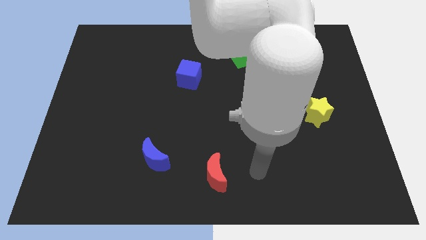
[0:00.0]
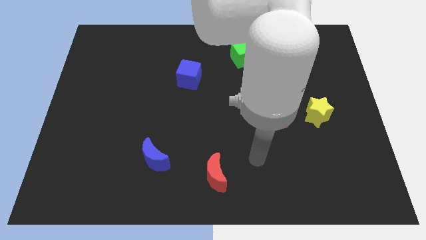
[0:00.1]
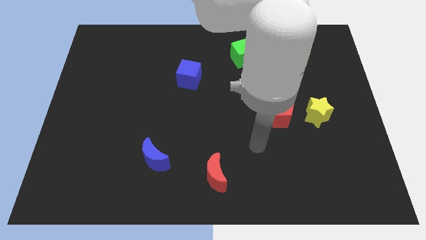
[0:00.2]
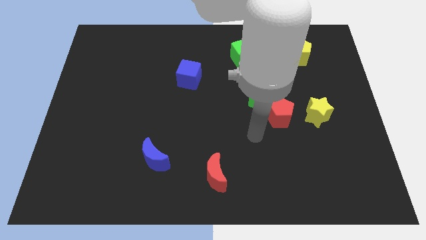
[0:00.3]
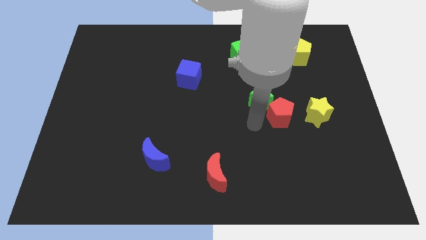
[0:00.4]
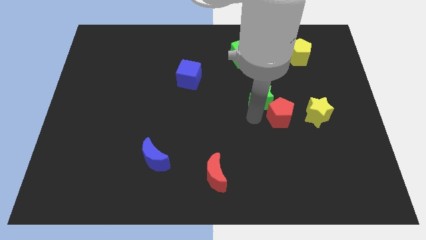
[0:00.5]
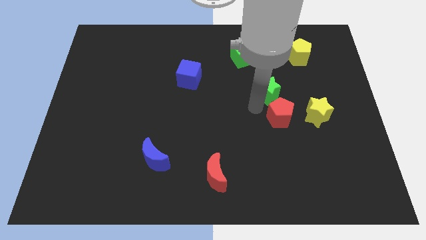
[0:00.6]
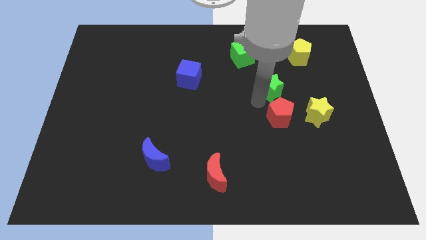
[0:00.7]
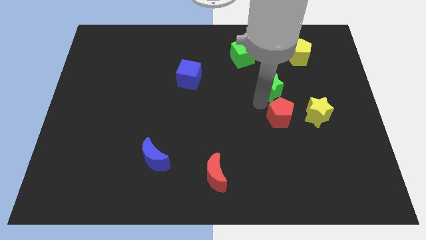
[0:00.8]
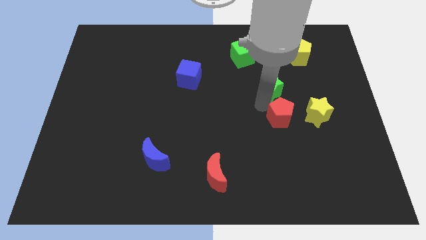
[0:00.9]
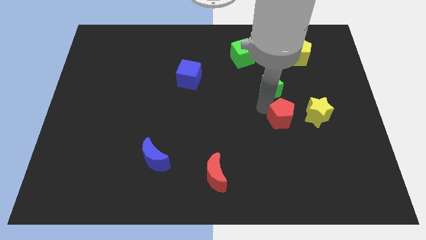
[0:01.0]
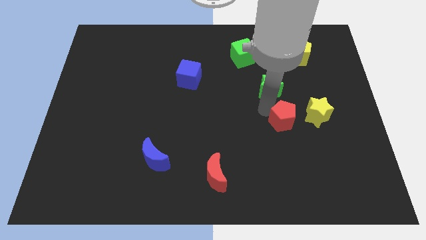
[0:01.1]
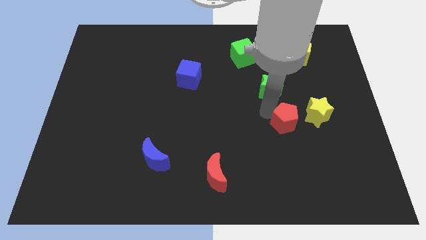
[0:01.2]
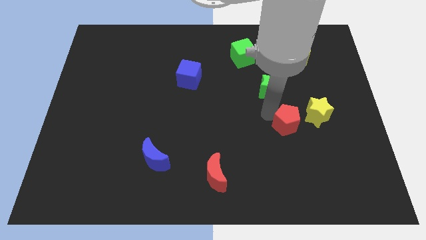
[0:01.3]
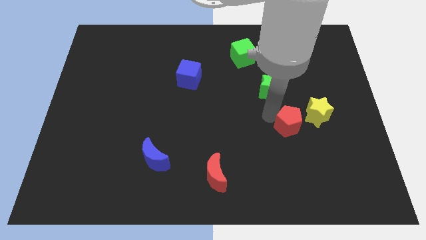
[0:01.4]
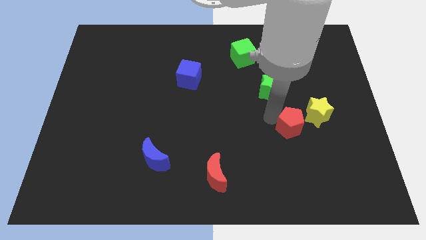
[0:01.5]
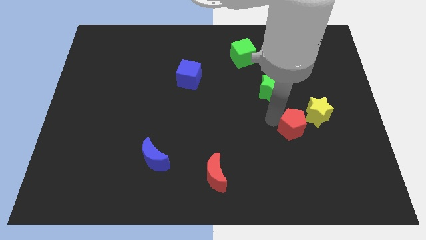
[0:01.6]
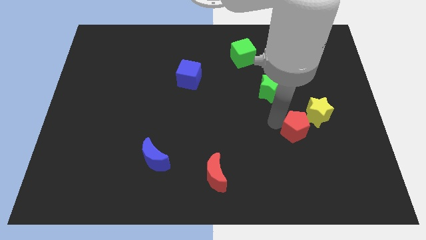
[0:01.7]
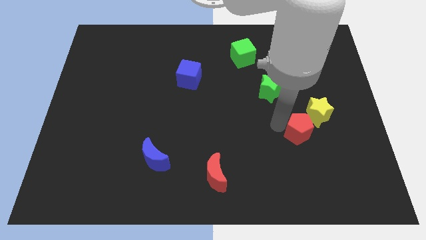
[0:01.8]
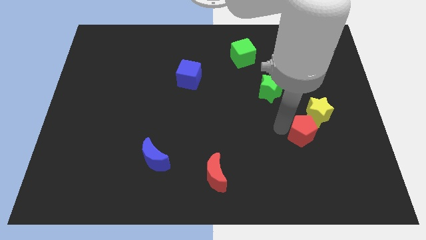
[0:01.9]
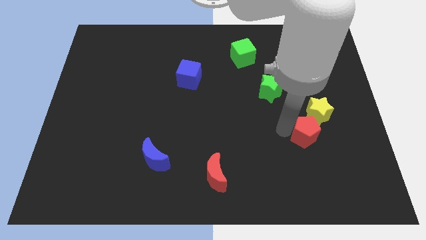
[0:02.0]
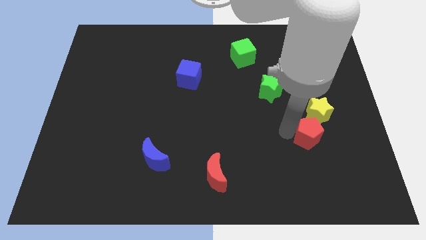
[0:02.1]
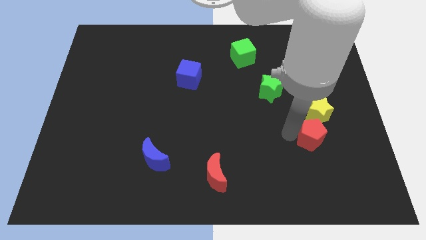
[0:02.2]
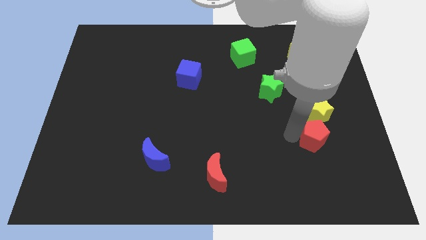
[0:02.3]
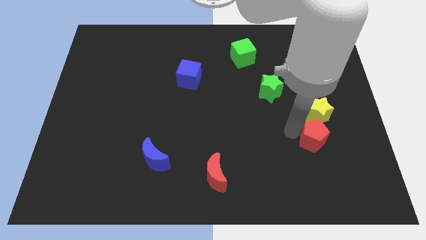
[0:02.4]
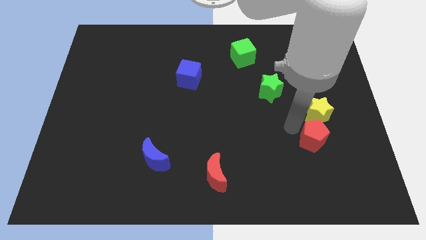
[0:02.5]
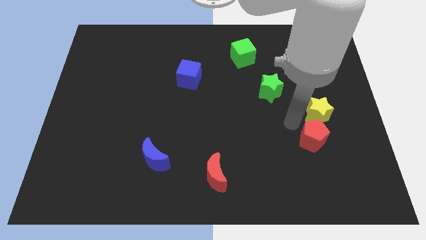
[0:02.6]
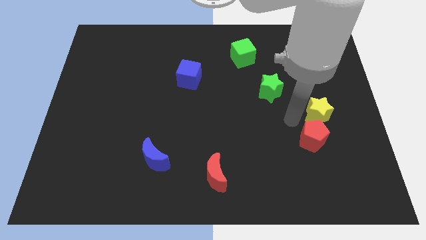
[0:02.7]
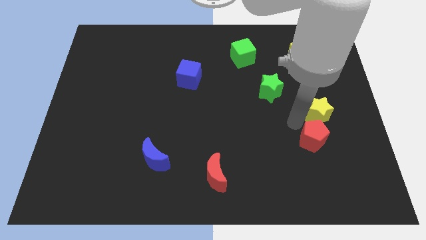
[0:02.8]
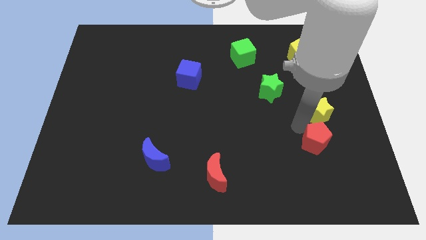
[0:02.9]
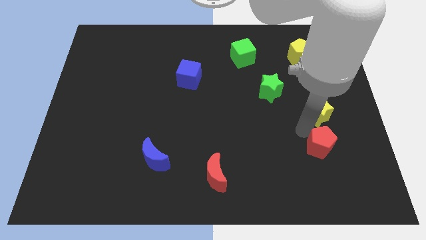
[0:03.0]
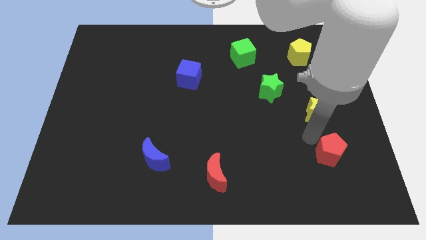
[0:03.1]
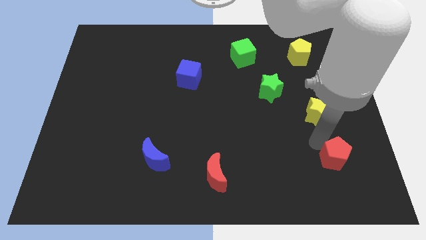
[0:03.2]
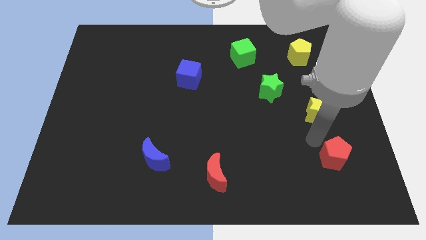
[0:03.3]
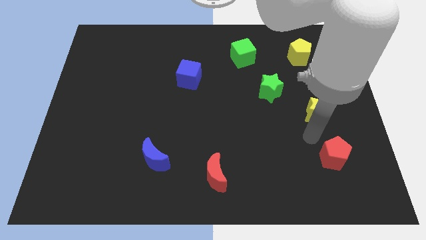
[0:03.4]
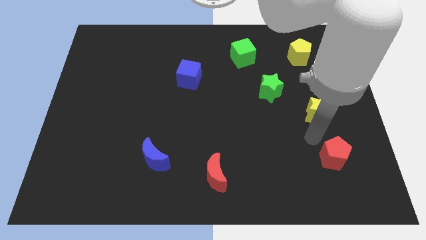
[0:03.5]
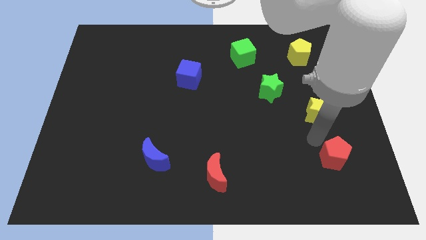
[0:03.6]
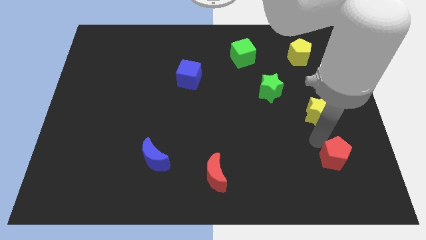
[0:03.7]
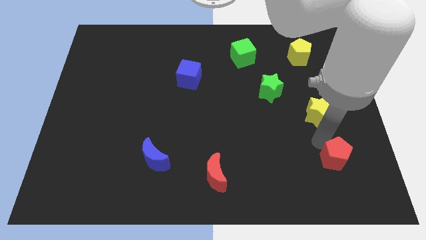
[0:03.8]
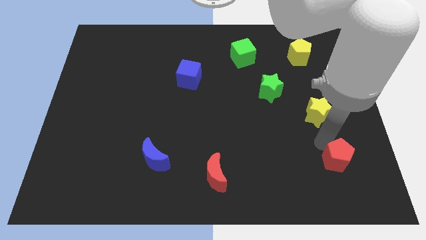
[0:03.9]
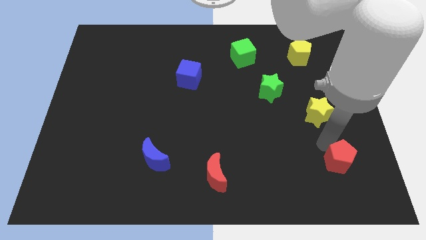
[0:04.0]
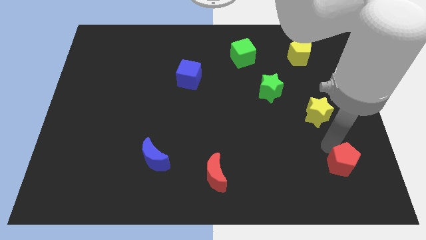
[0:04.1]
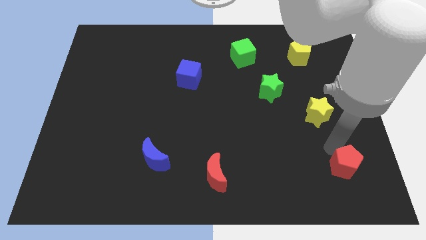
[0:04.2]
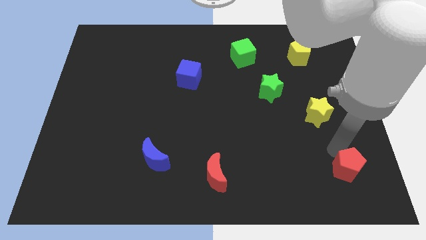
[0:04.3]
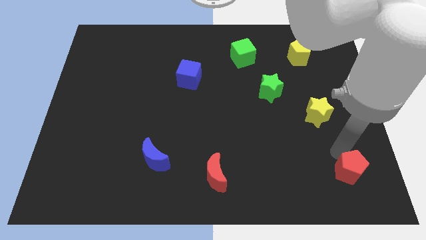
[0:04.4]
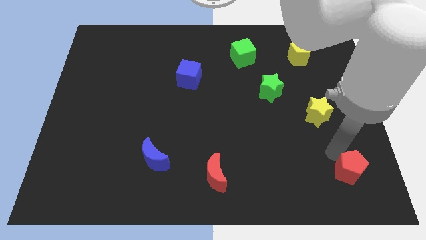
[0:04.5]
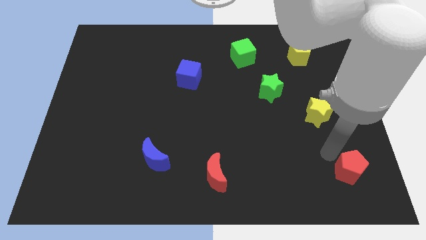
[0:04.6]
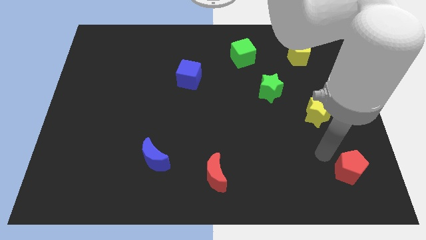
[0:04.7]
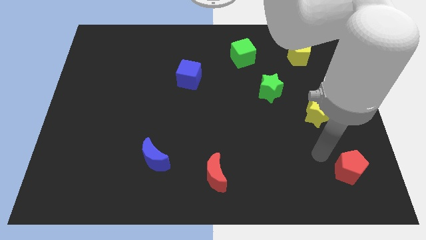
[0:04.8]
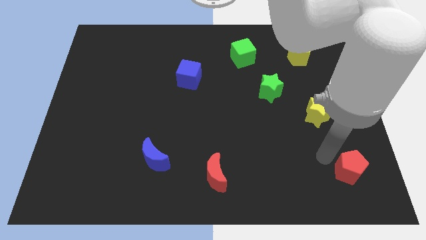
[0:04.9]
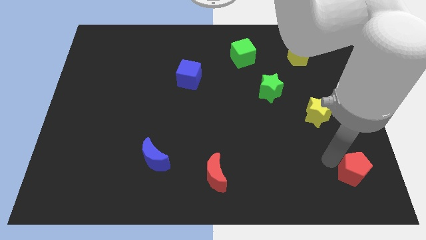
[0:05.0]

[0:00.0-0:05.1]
put the red pentagon to the bottom right of the board

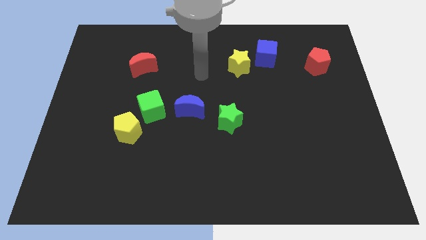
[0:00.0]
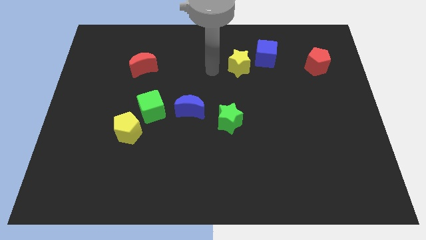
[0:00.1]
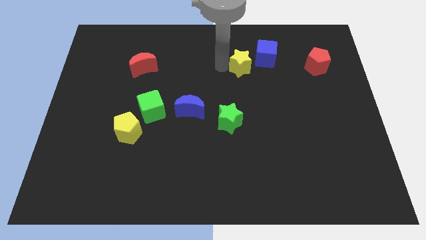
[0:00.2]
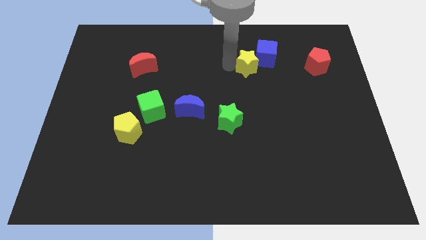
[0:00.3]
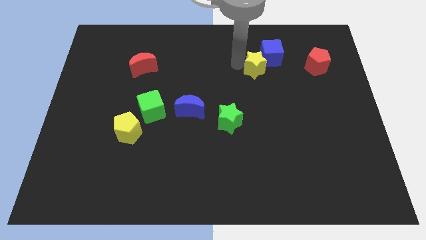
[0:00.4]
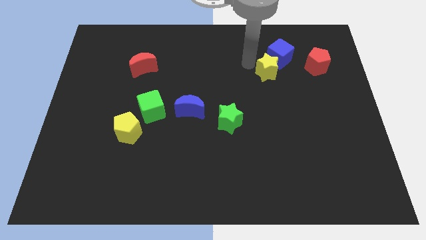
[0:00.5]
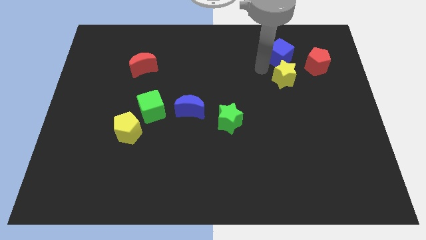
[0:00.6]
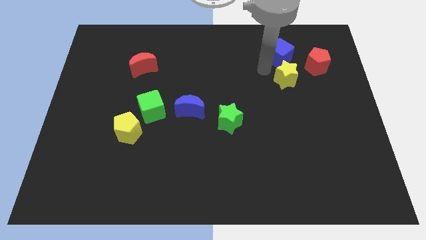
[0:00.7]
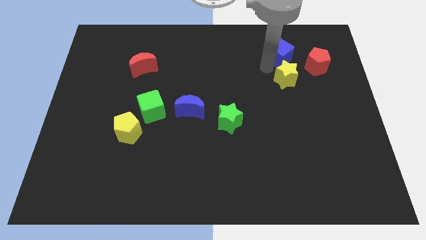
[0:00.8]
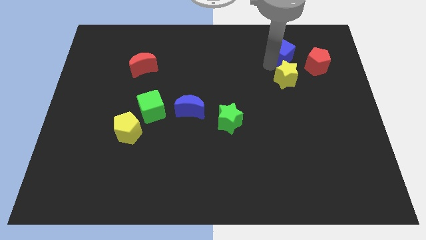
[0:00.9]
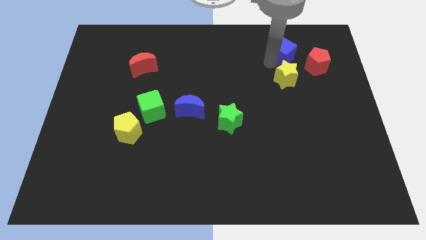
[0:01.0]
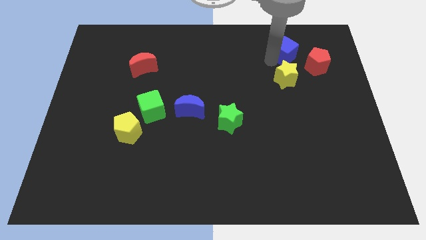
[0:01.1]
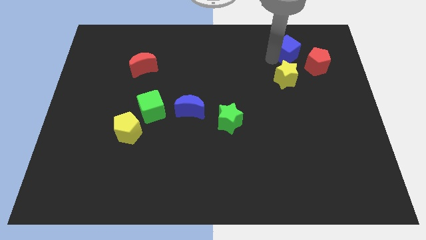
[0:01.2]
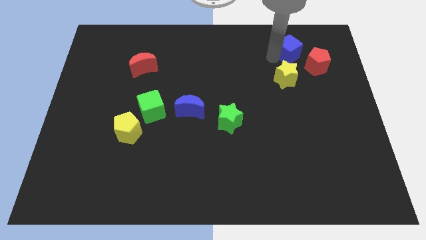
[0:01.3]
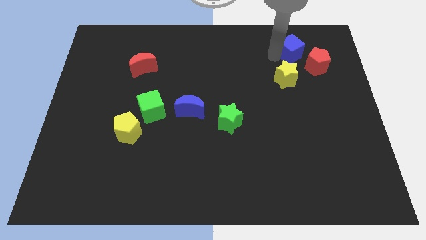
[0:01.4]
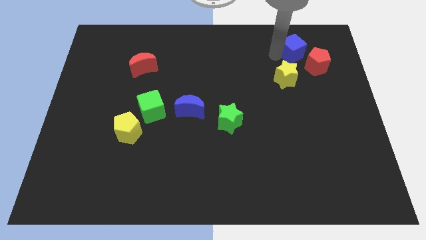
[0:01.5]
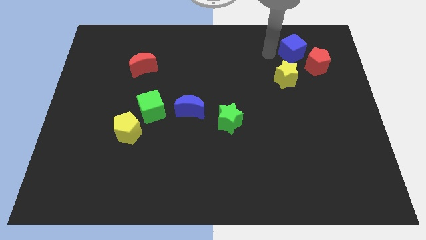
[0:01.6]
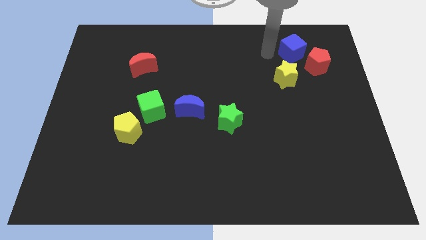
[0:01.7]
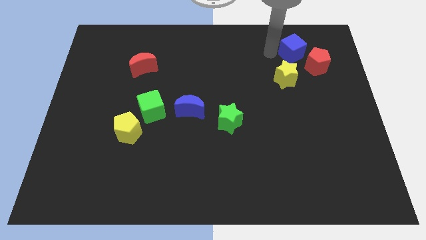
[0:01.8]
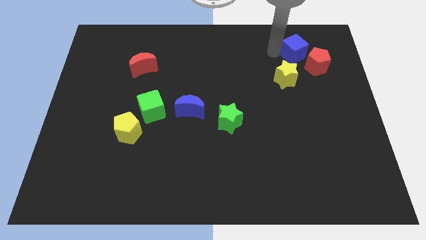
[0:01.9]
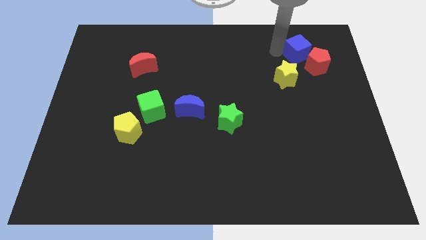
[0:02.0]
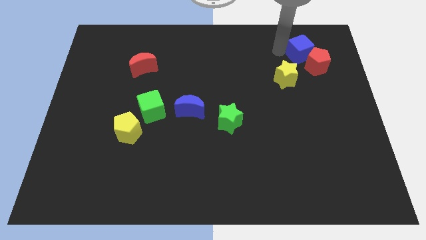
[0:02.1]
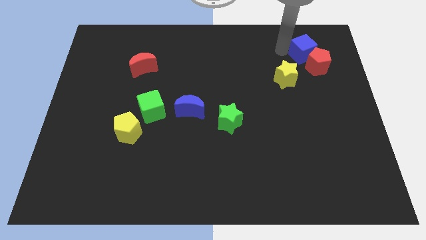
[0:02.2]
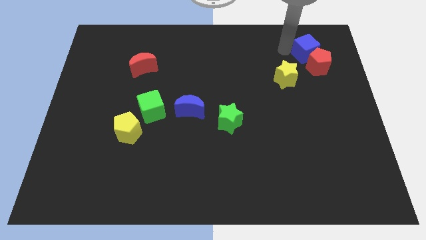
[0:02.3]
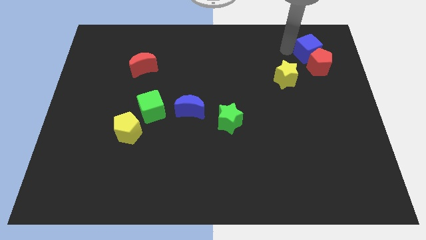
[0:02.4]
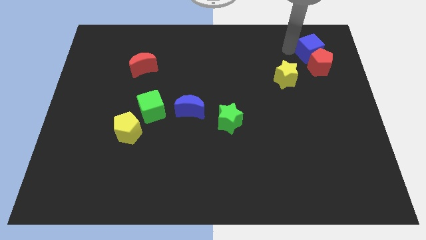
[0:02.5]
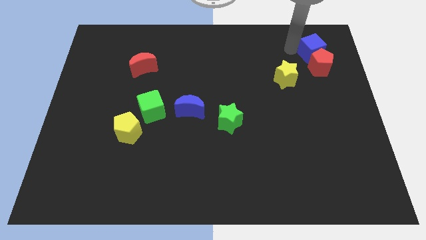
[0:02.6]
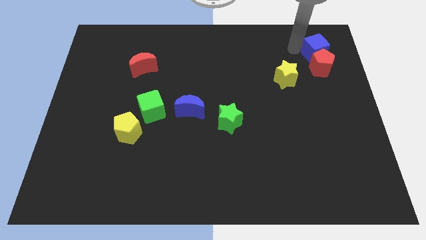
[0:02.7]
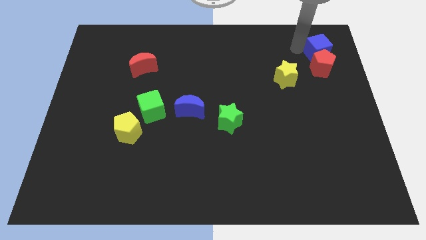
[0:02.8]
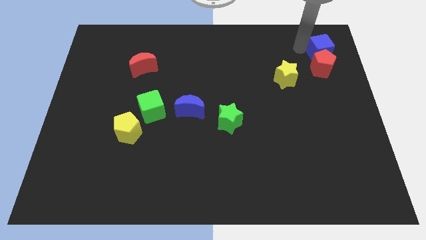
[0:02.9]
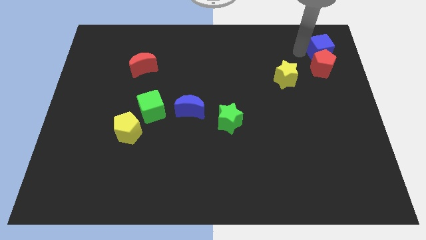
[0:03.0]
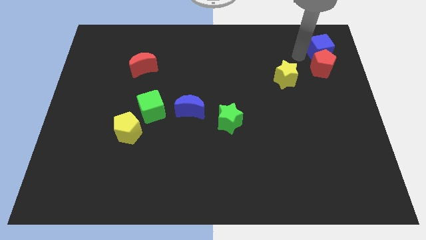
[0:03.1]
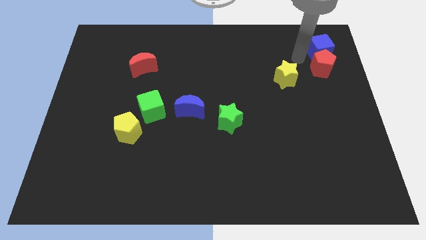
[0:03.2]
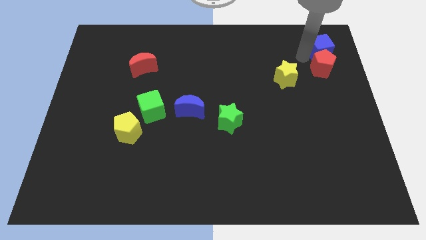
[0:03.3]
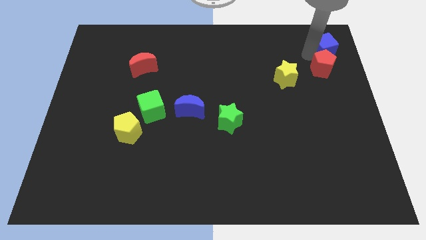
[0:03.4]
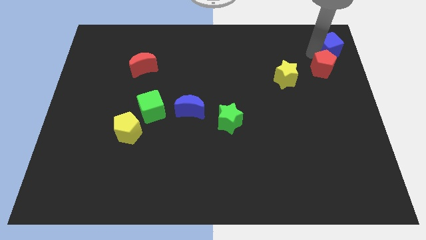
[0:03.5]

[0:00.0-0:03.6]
slide the blue cube to the upper right corner
